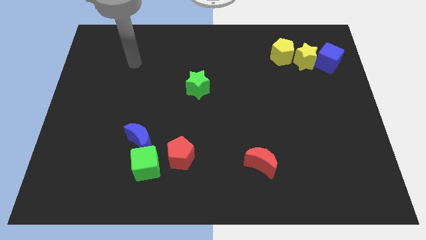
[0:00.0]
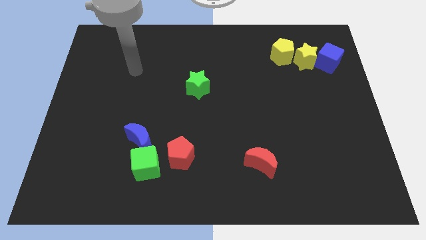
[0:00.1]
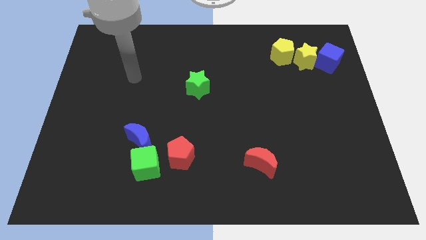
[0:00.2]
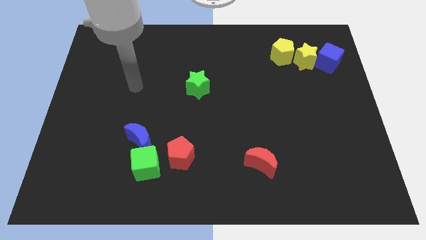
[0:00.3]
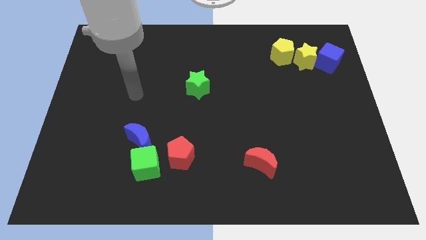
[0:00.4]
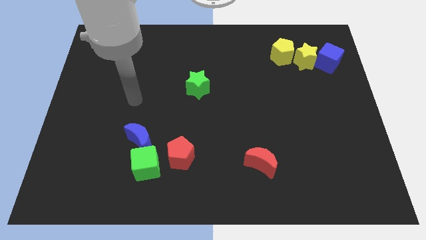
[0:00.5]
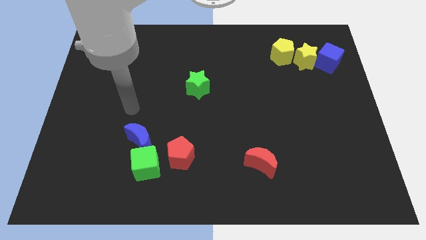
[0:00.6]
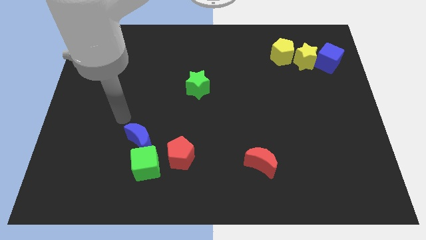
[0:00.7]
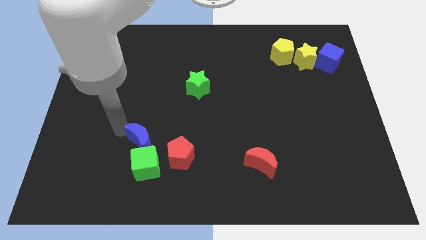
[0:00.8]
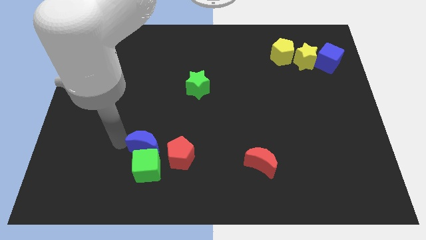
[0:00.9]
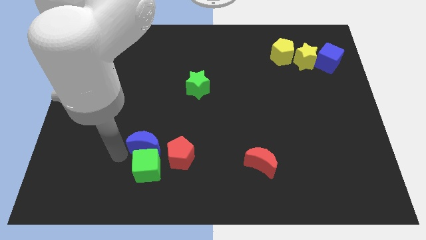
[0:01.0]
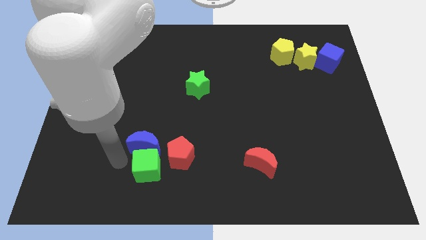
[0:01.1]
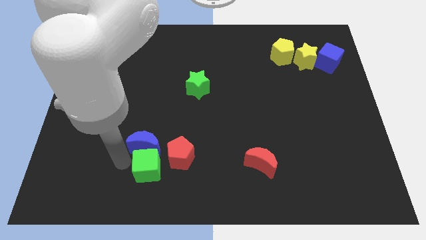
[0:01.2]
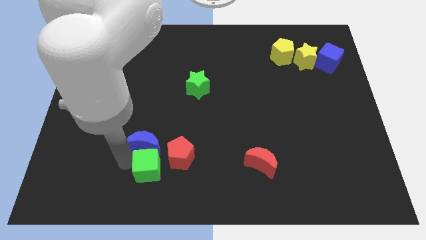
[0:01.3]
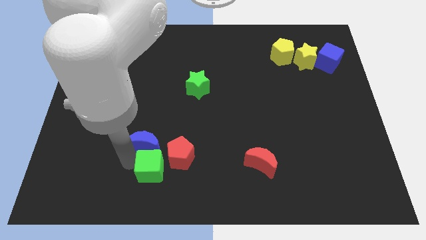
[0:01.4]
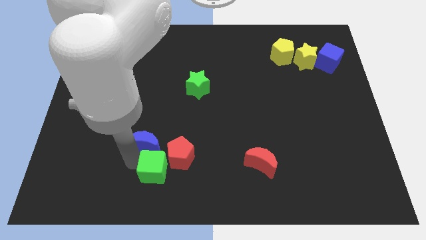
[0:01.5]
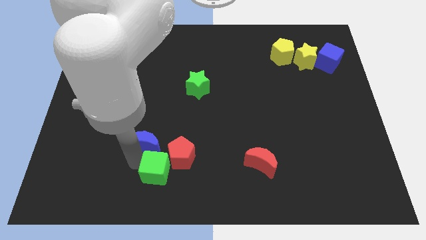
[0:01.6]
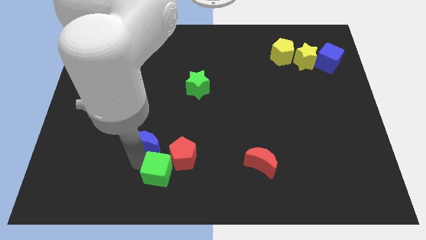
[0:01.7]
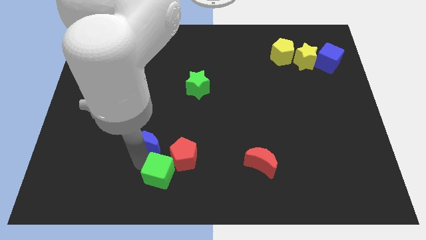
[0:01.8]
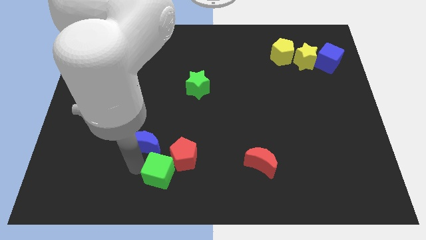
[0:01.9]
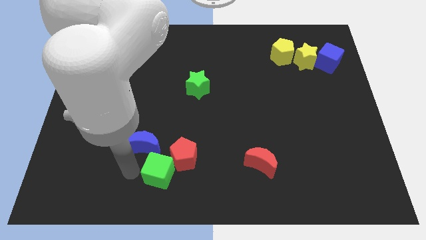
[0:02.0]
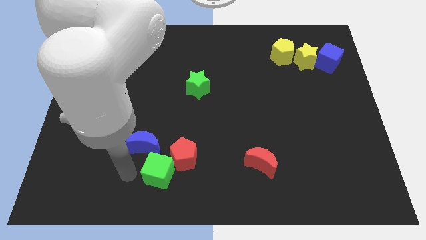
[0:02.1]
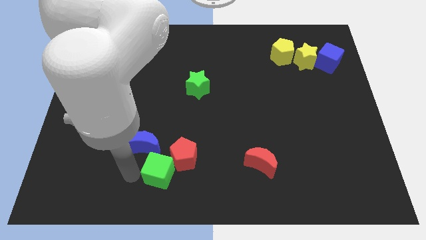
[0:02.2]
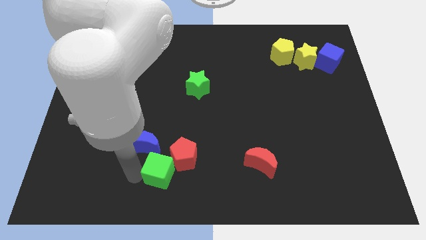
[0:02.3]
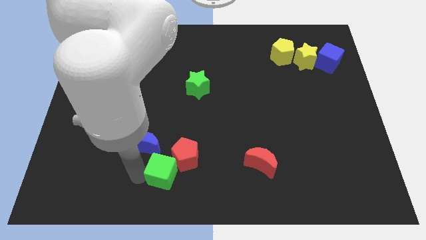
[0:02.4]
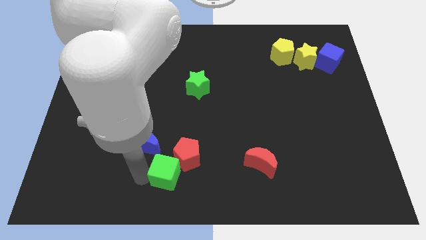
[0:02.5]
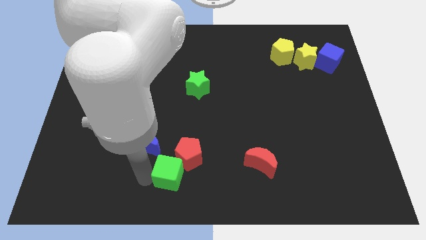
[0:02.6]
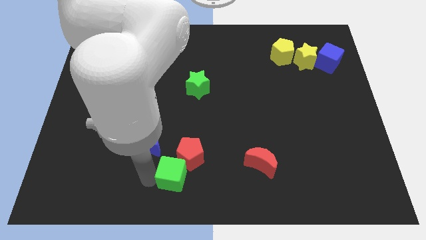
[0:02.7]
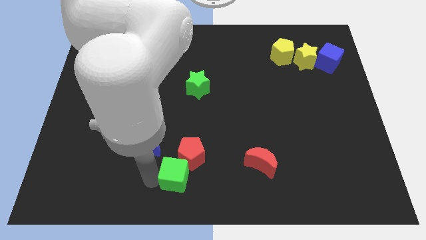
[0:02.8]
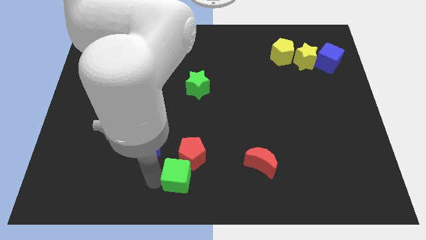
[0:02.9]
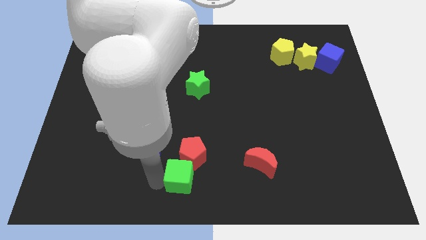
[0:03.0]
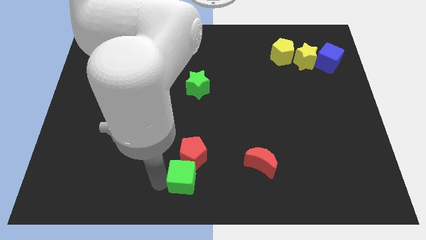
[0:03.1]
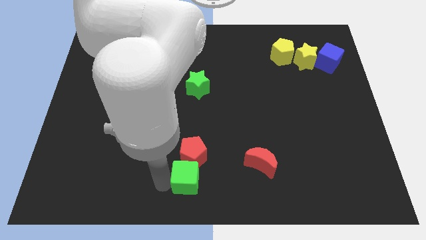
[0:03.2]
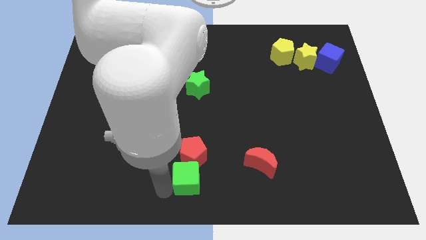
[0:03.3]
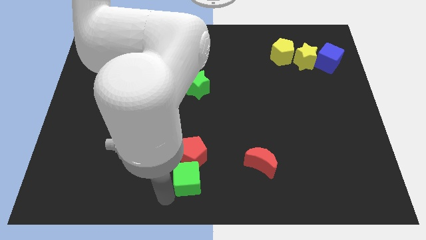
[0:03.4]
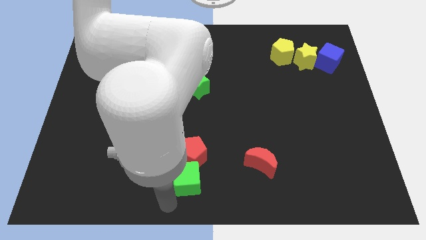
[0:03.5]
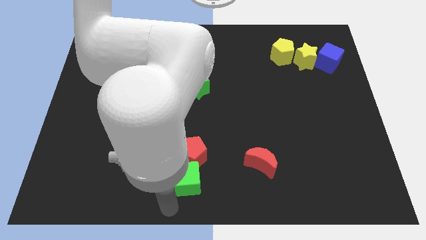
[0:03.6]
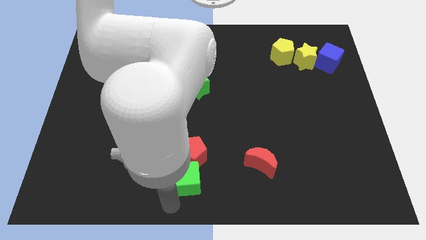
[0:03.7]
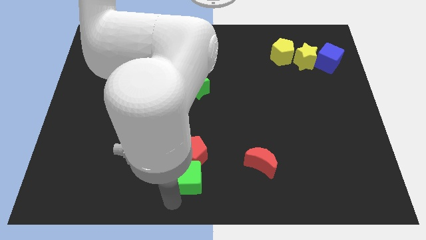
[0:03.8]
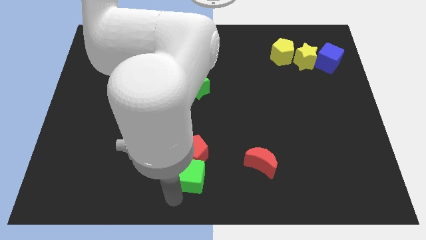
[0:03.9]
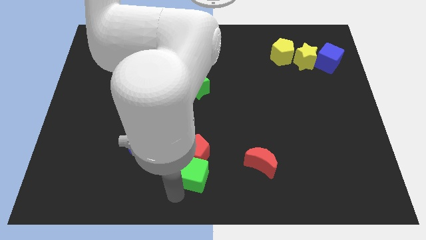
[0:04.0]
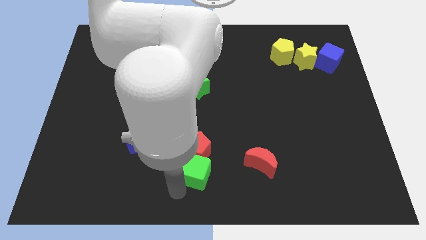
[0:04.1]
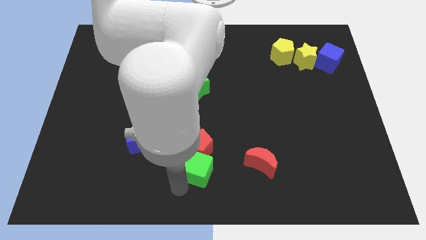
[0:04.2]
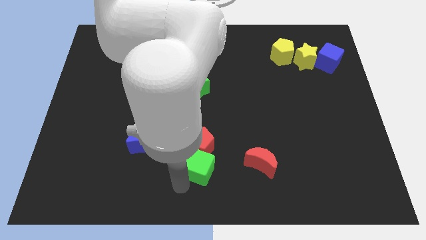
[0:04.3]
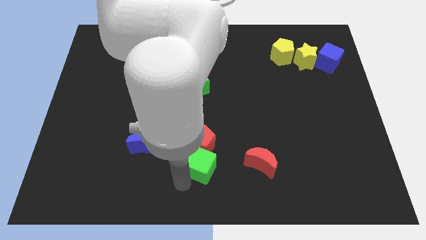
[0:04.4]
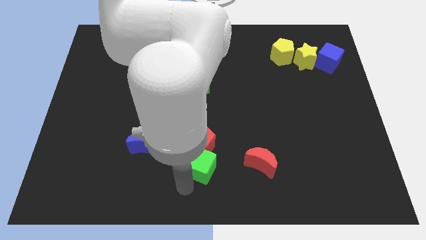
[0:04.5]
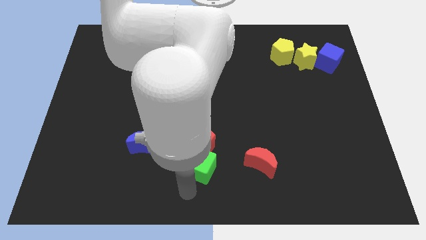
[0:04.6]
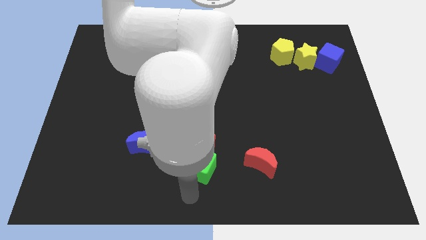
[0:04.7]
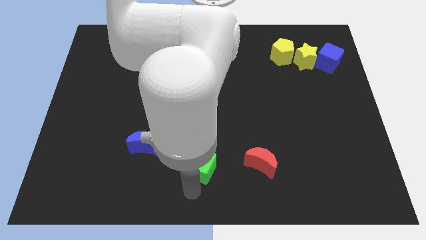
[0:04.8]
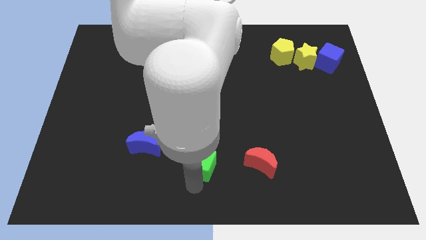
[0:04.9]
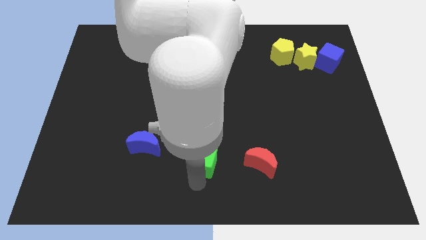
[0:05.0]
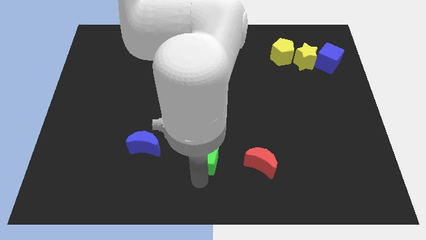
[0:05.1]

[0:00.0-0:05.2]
move the green cube a little diagonally up and to the right

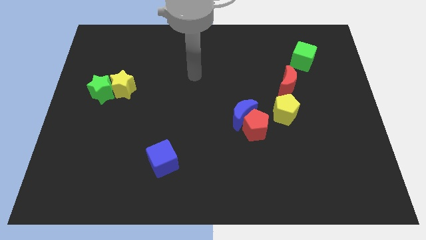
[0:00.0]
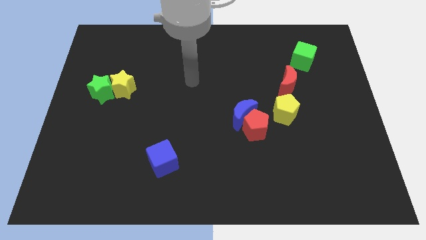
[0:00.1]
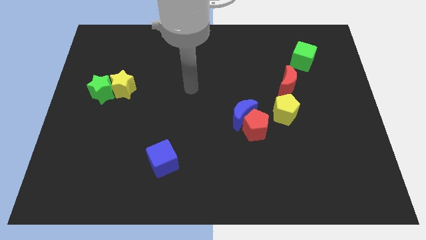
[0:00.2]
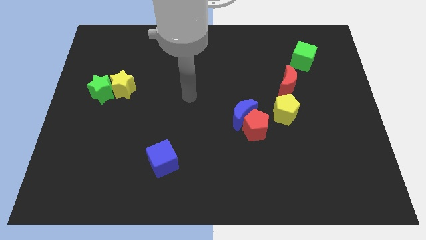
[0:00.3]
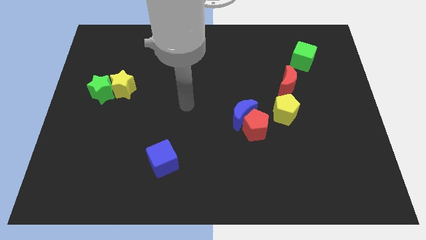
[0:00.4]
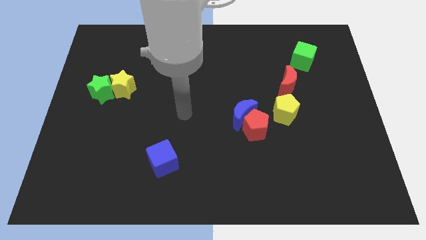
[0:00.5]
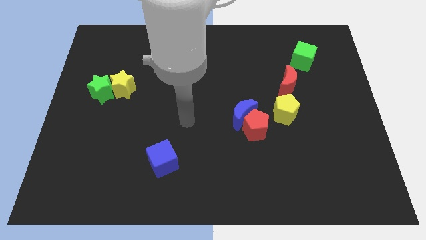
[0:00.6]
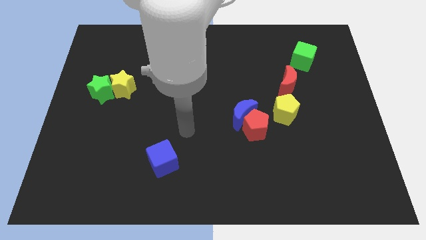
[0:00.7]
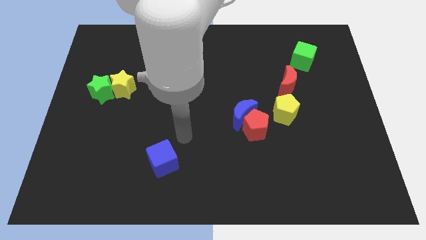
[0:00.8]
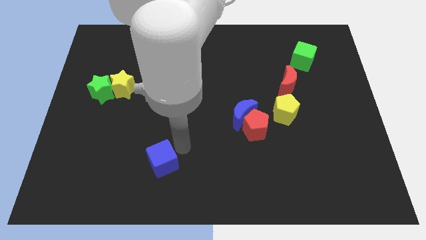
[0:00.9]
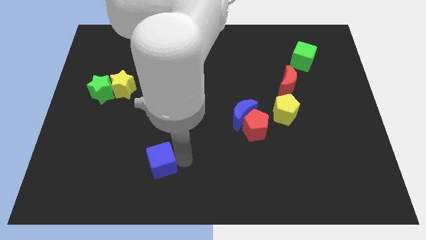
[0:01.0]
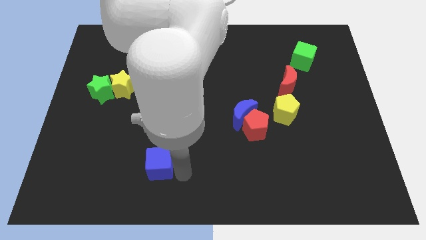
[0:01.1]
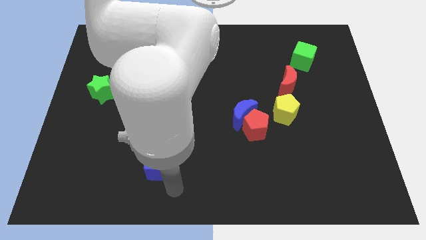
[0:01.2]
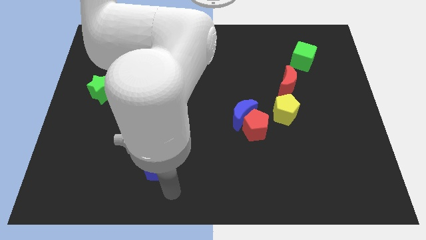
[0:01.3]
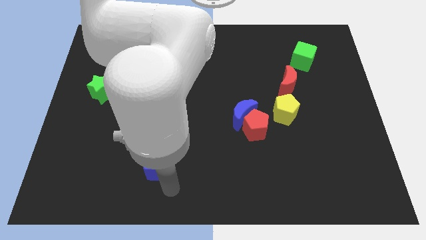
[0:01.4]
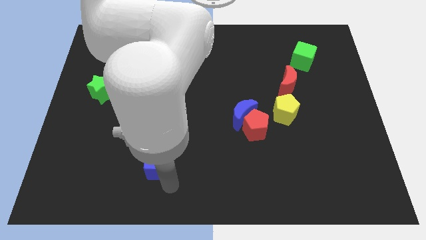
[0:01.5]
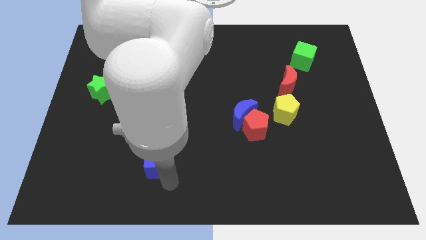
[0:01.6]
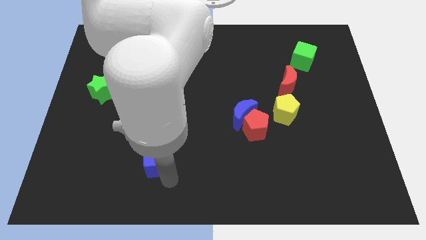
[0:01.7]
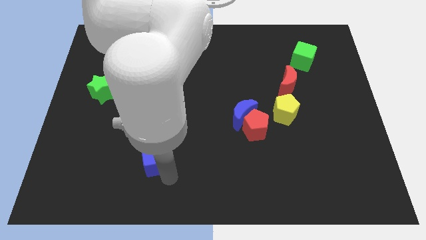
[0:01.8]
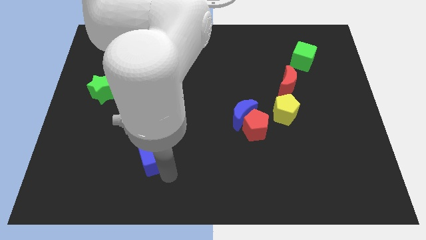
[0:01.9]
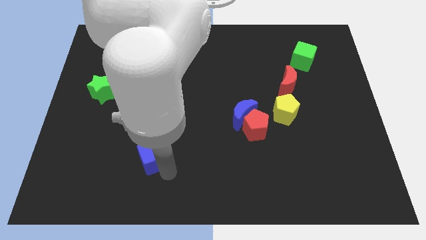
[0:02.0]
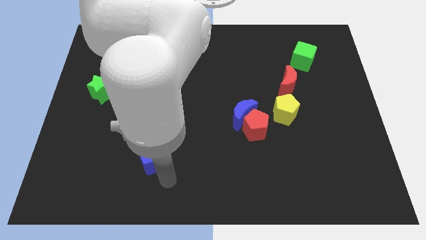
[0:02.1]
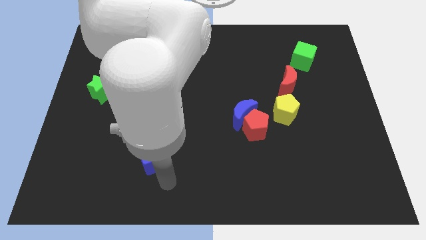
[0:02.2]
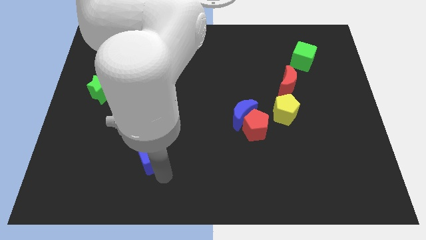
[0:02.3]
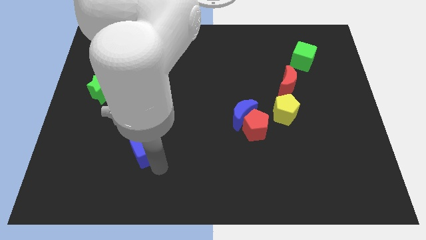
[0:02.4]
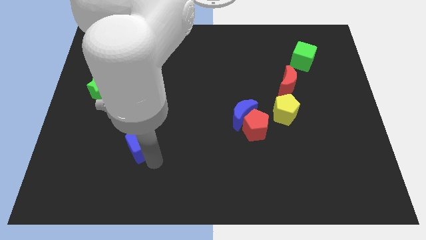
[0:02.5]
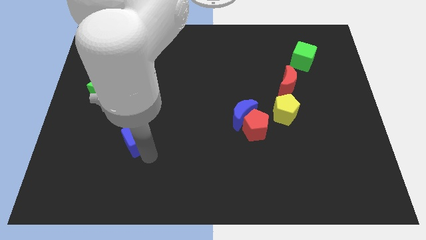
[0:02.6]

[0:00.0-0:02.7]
move the blue cube diagonally upwards and left a little

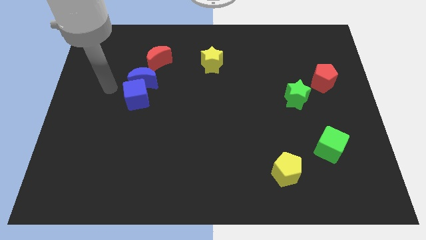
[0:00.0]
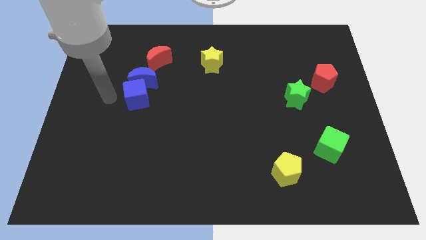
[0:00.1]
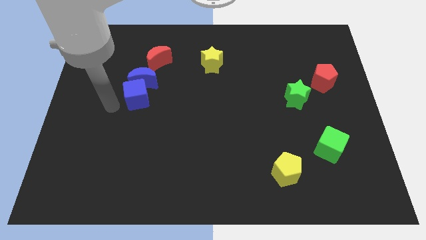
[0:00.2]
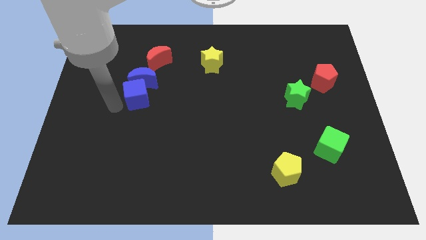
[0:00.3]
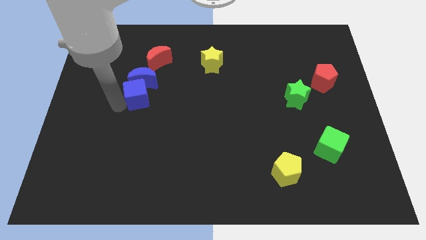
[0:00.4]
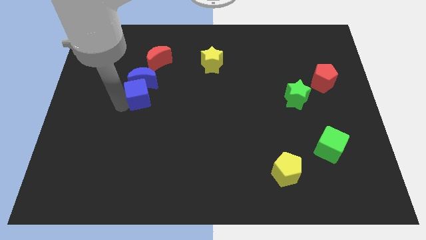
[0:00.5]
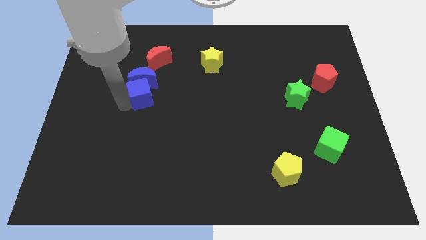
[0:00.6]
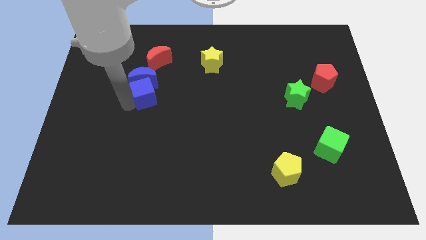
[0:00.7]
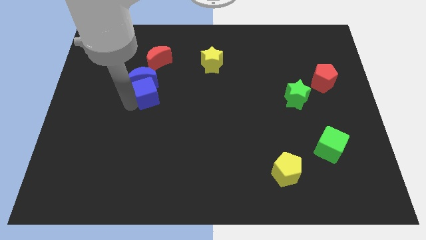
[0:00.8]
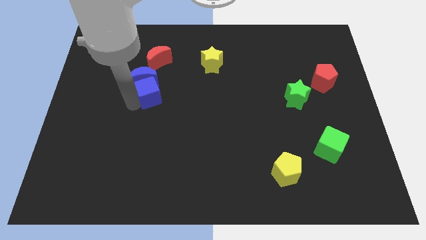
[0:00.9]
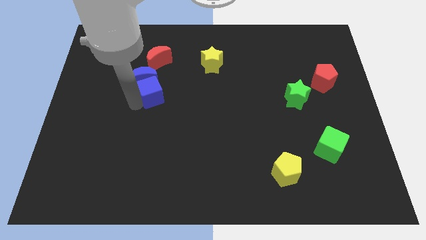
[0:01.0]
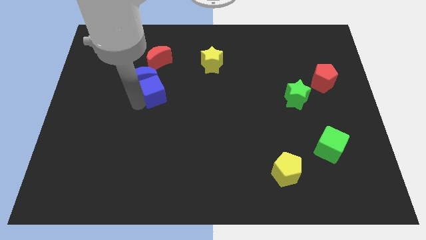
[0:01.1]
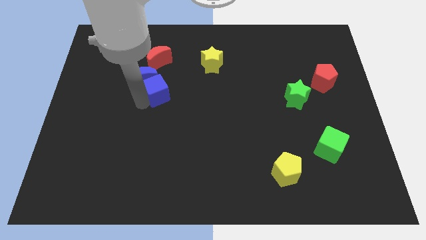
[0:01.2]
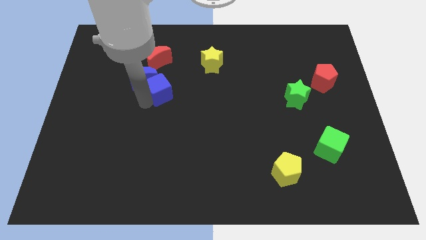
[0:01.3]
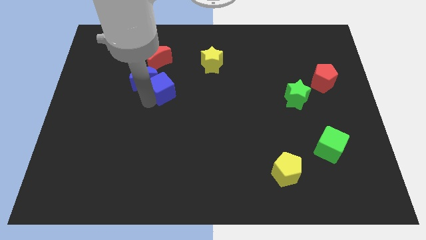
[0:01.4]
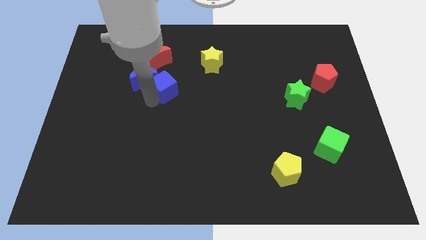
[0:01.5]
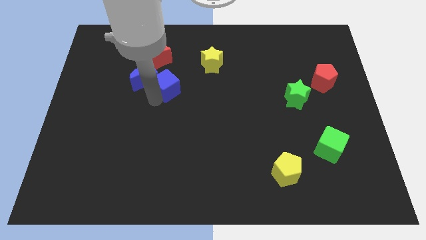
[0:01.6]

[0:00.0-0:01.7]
slightly push the blue cube up and right diagonally
